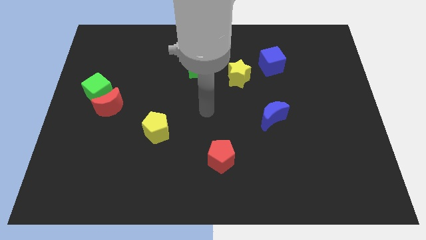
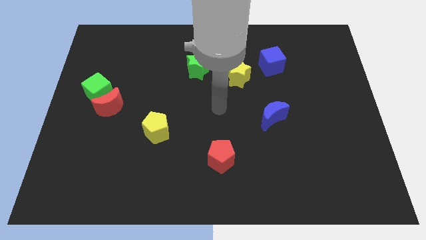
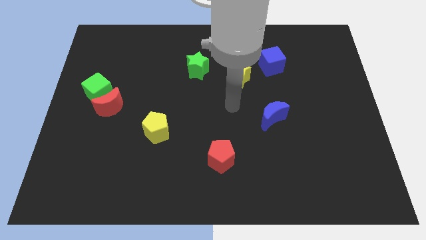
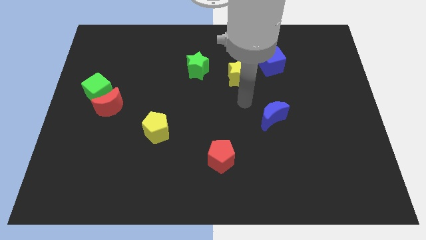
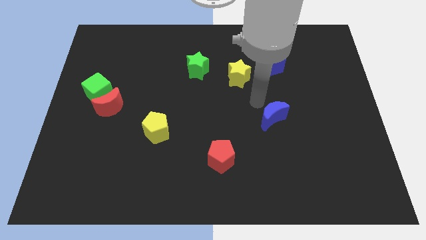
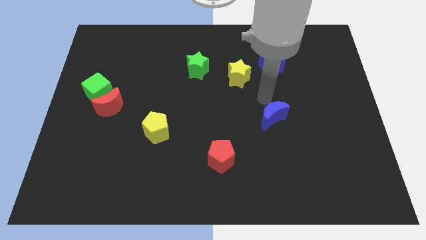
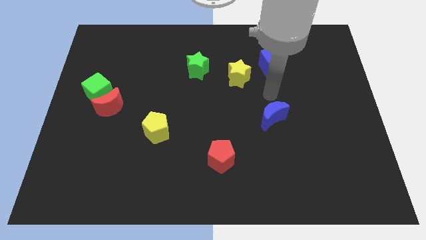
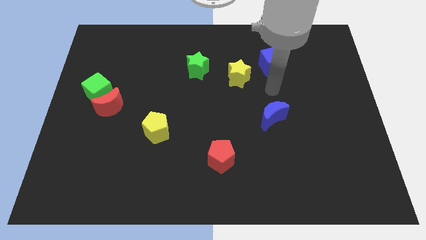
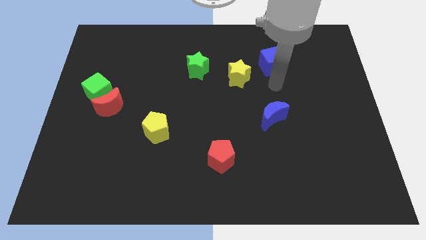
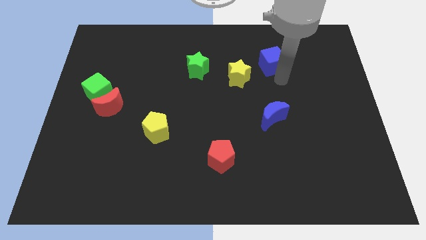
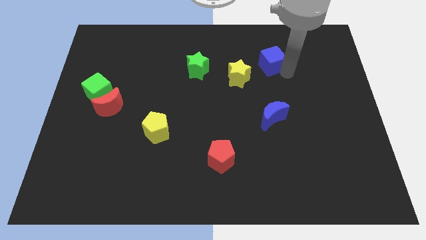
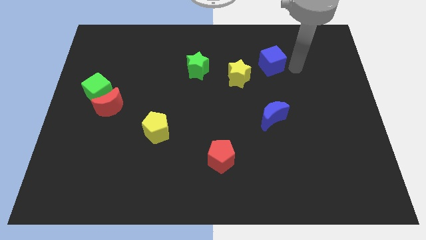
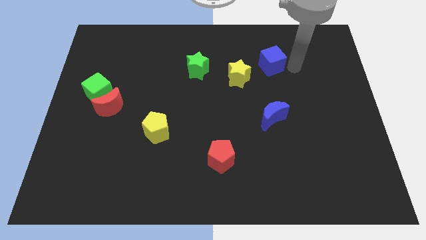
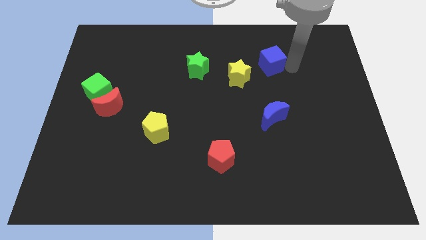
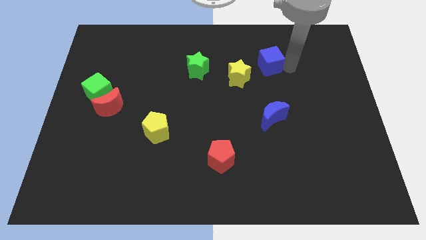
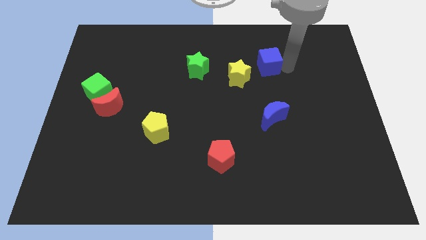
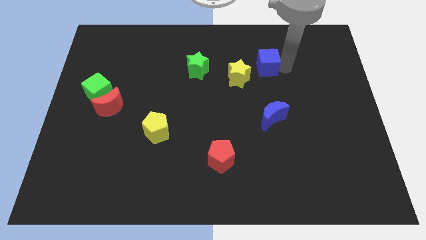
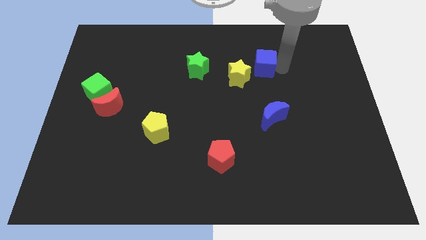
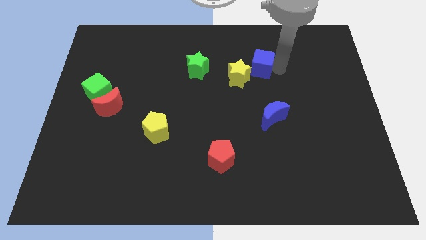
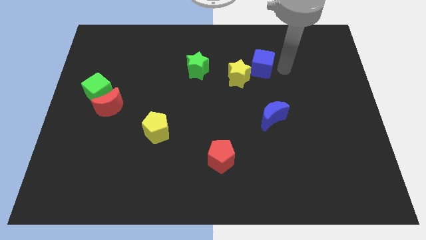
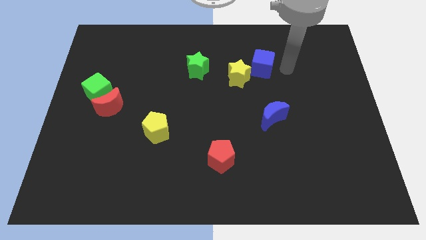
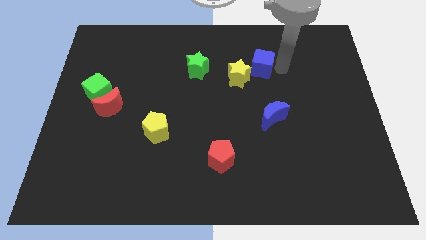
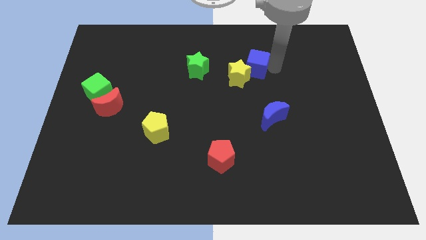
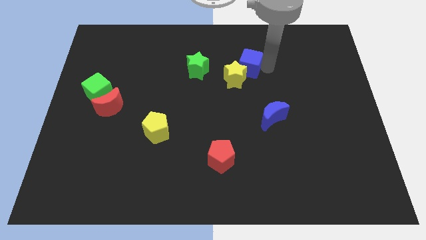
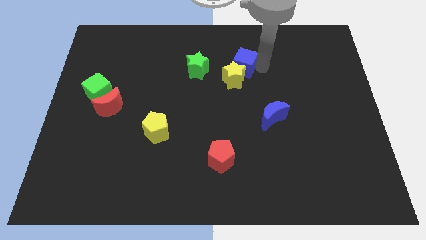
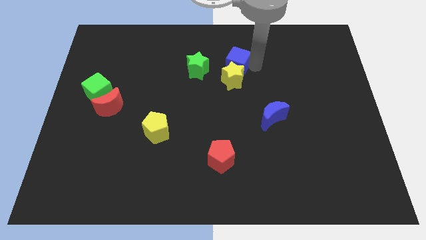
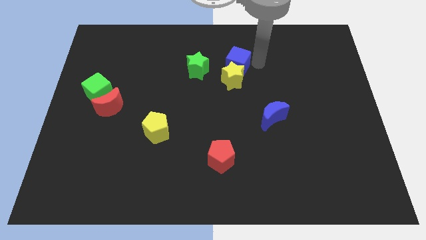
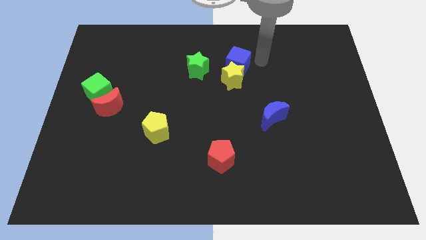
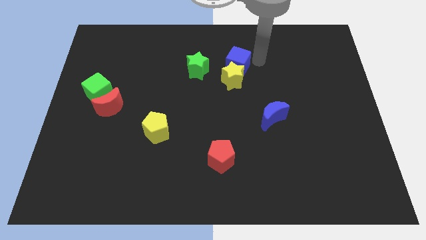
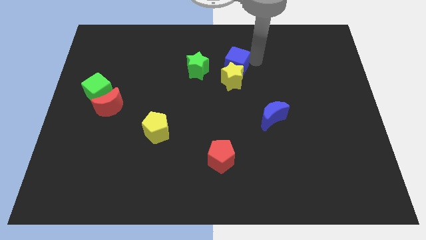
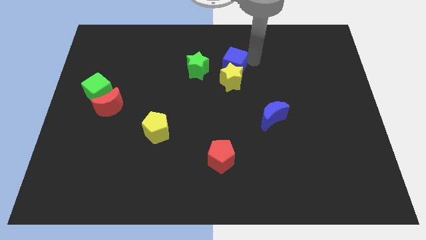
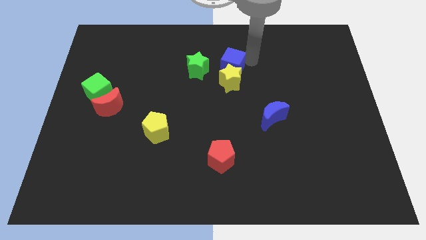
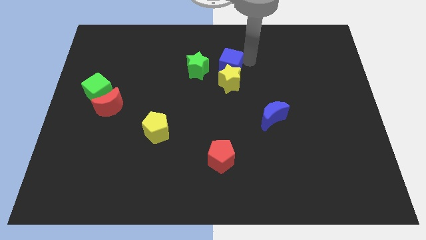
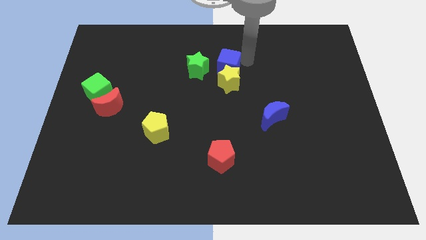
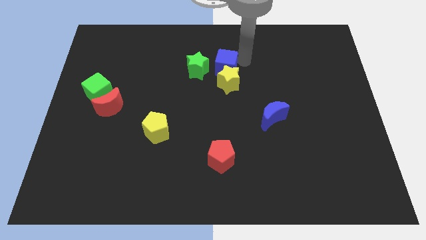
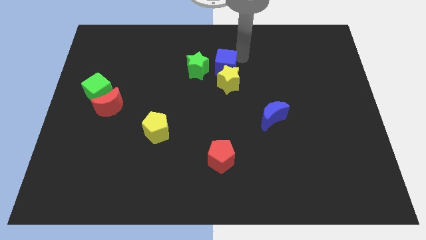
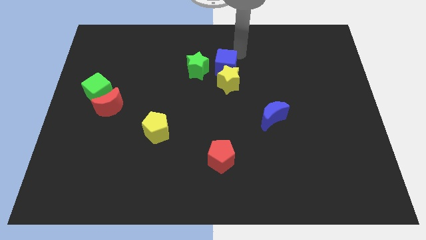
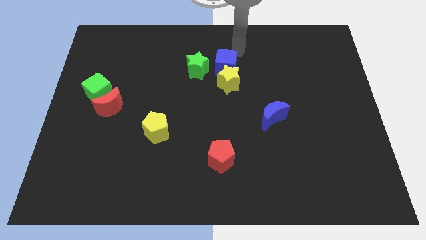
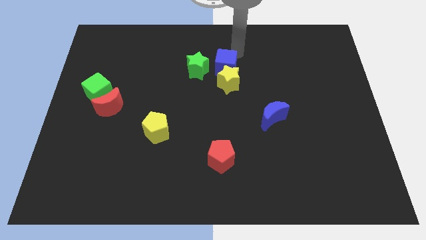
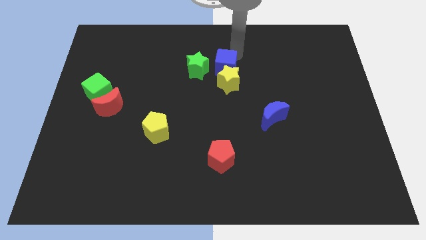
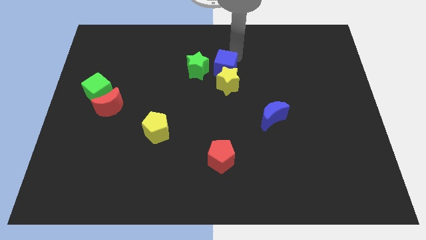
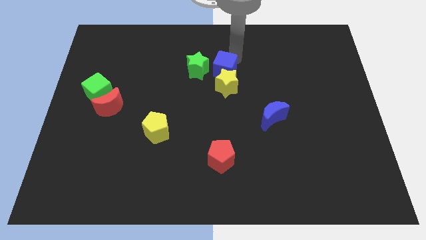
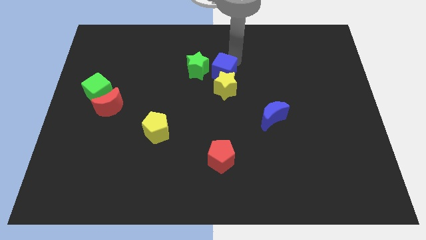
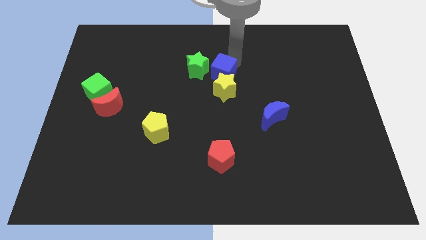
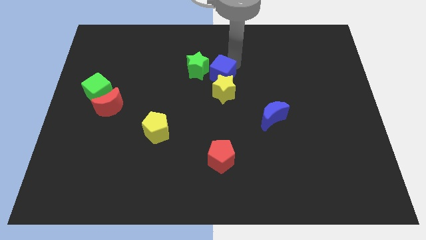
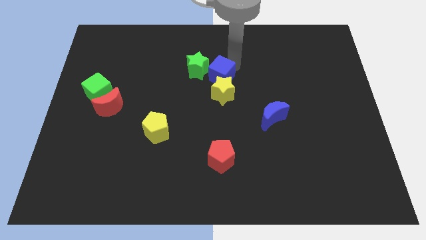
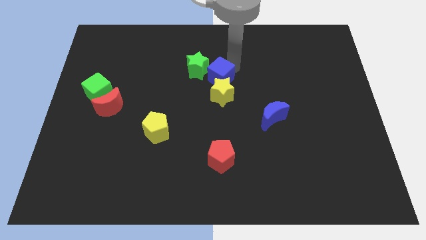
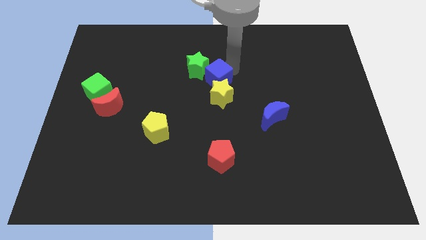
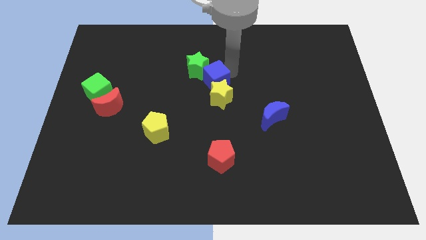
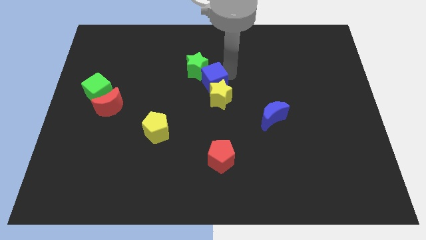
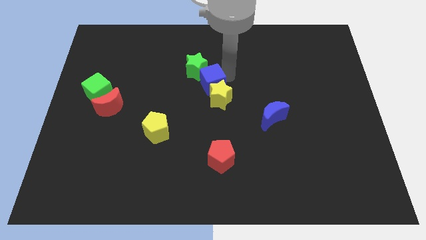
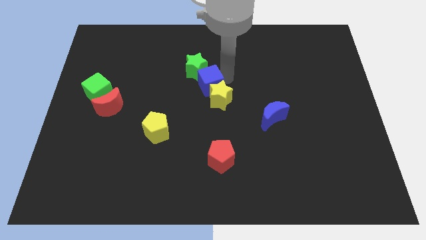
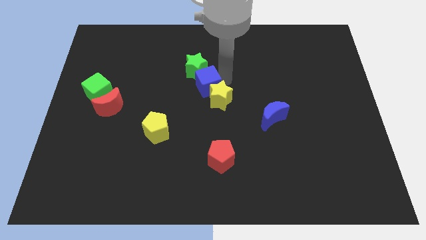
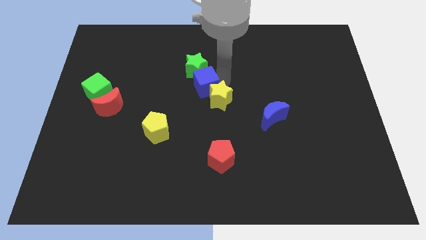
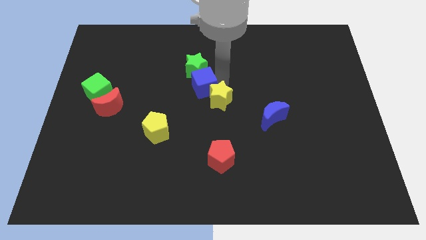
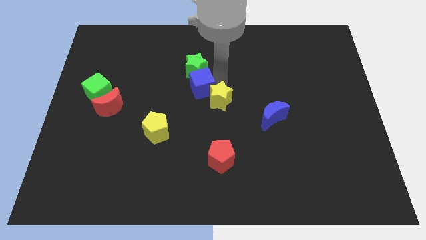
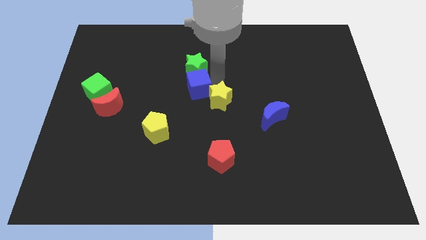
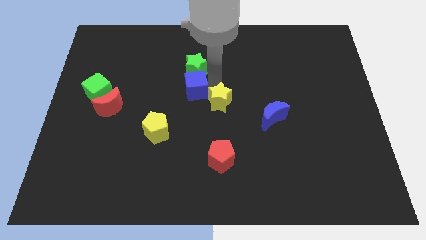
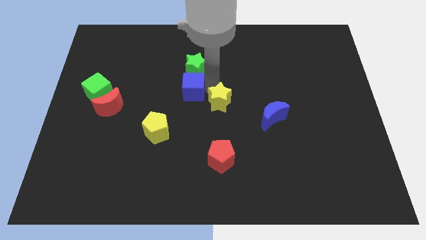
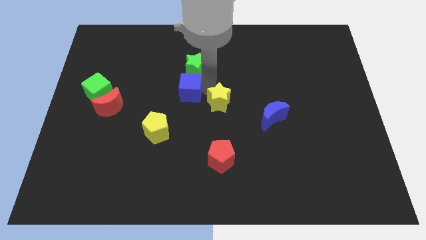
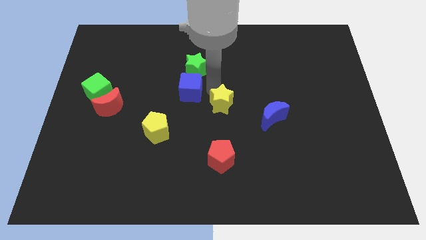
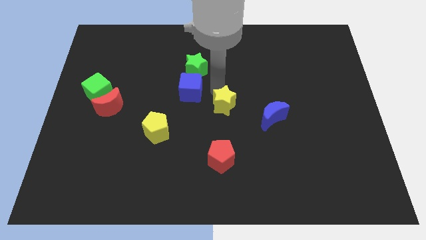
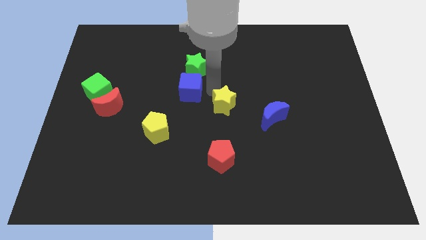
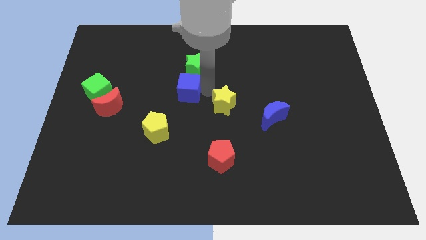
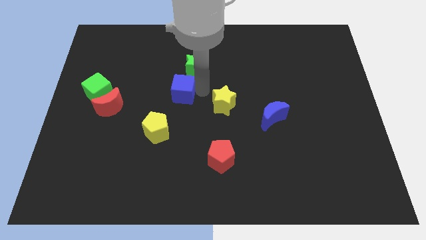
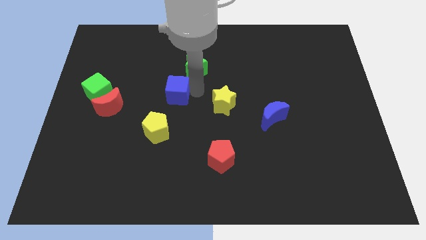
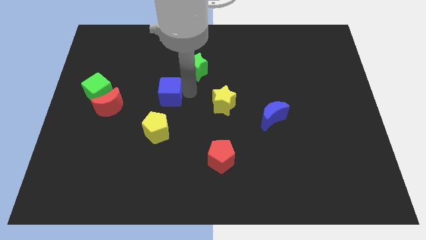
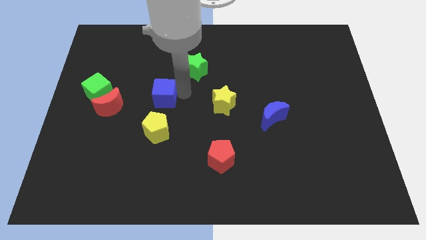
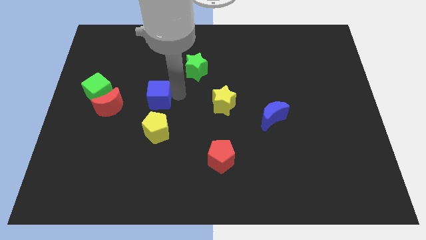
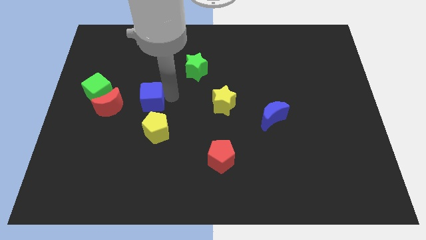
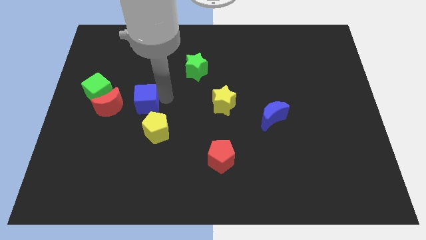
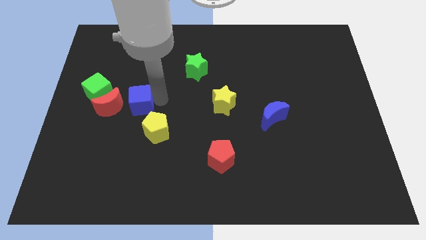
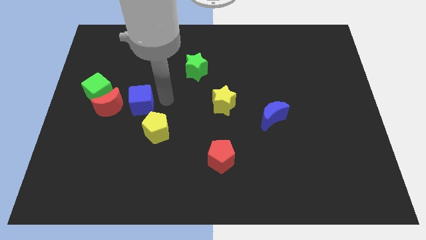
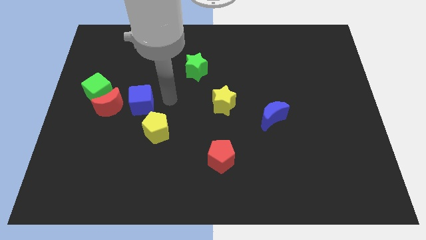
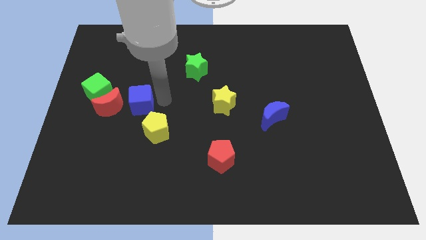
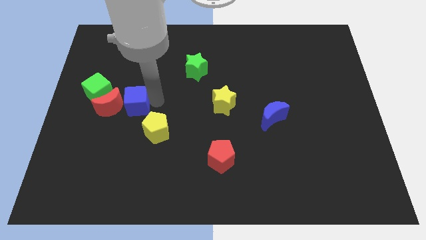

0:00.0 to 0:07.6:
put the blue cube close to the red moon
